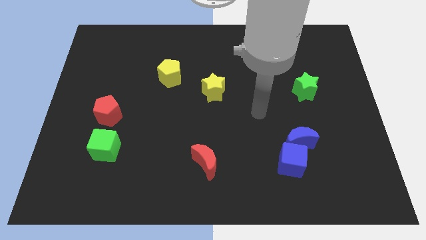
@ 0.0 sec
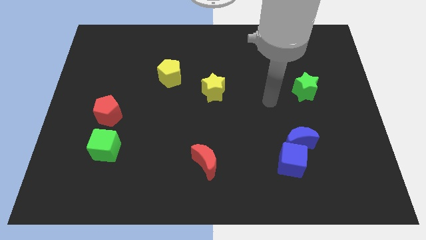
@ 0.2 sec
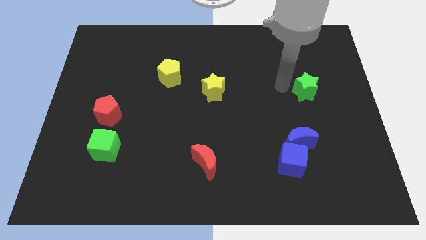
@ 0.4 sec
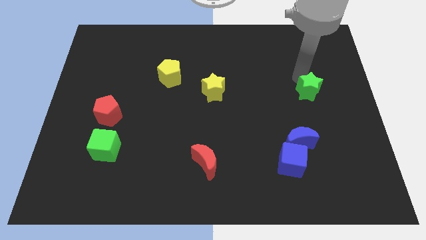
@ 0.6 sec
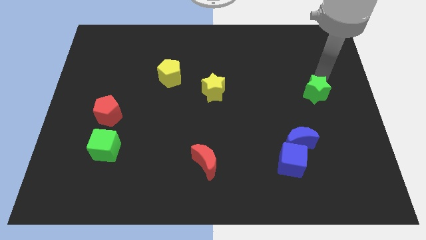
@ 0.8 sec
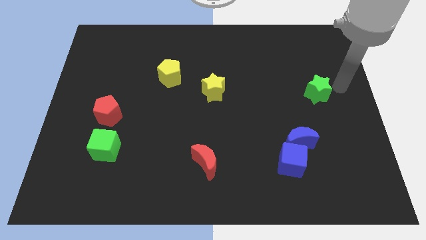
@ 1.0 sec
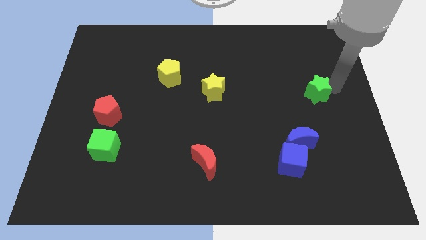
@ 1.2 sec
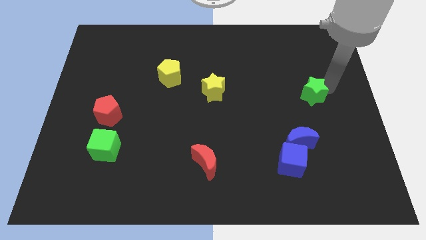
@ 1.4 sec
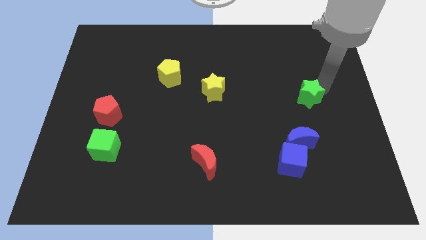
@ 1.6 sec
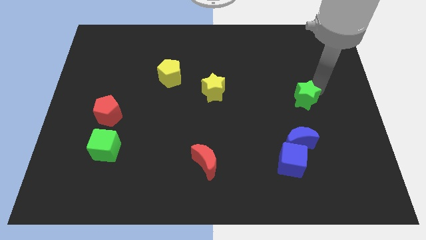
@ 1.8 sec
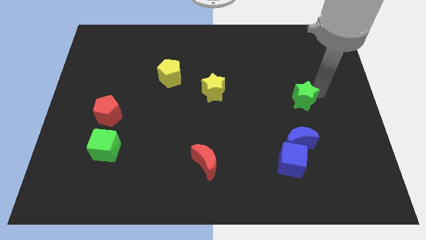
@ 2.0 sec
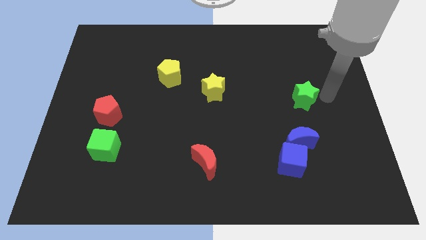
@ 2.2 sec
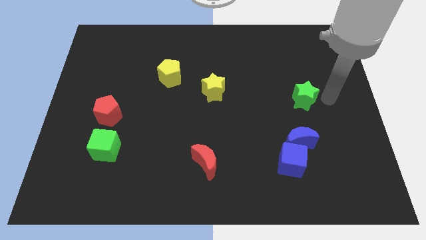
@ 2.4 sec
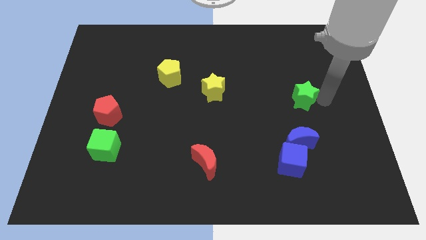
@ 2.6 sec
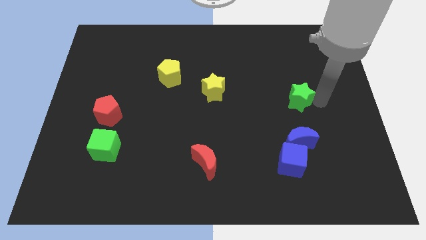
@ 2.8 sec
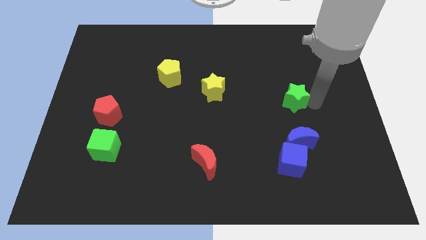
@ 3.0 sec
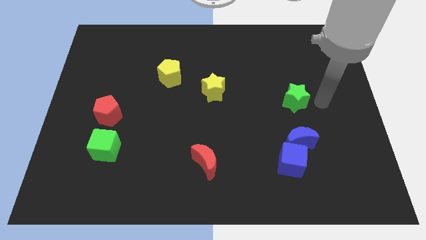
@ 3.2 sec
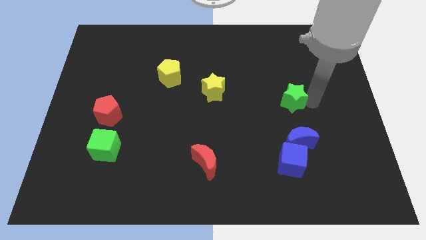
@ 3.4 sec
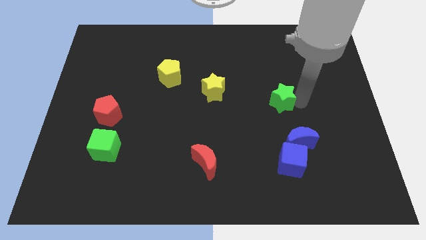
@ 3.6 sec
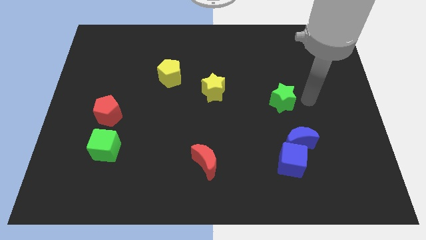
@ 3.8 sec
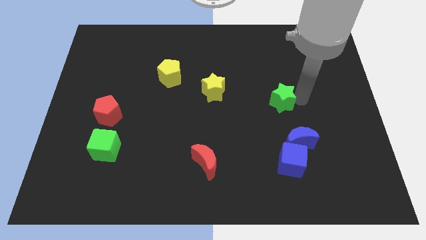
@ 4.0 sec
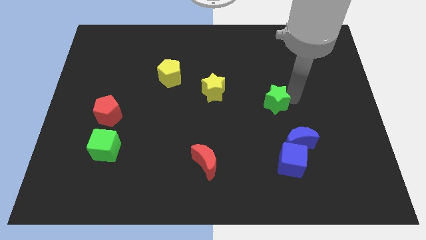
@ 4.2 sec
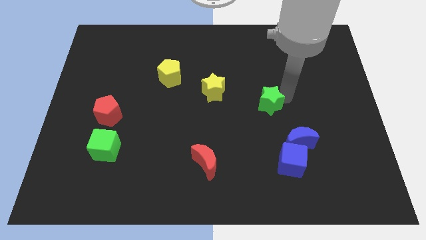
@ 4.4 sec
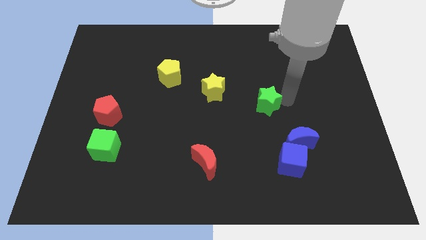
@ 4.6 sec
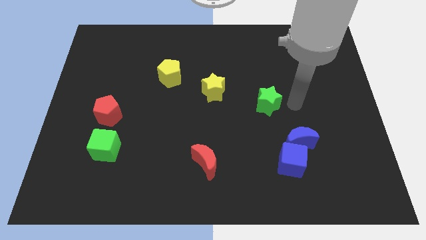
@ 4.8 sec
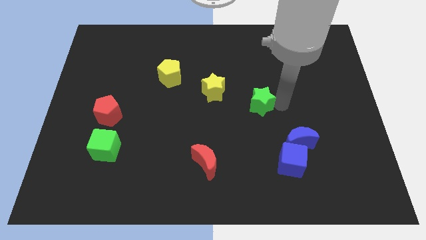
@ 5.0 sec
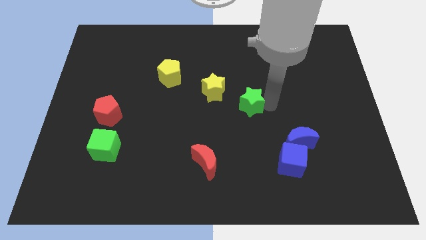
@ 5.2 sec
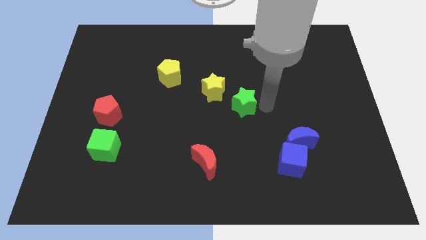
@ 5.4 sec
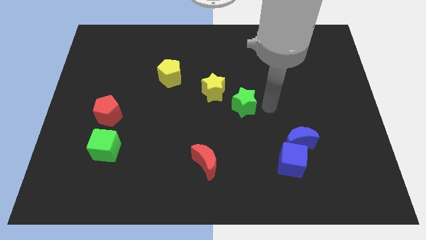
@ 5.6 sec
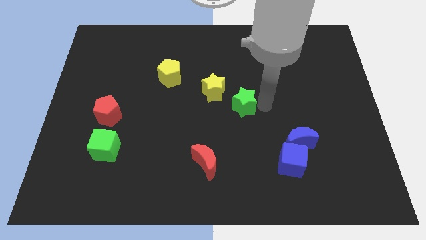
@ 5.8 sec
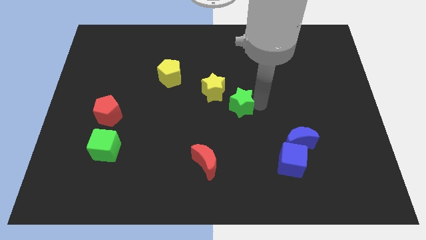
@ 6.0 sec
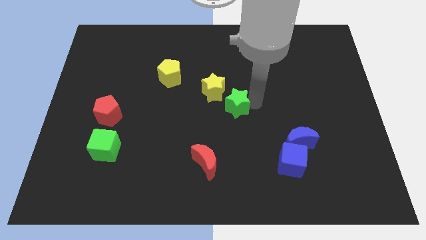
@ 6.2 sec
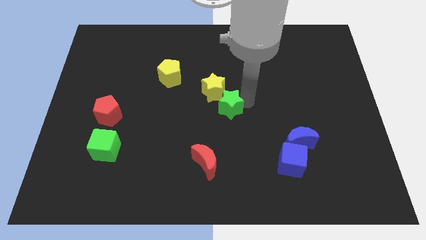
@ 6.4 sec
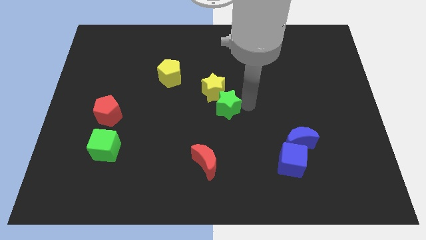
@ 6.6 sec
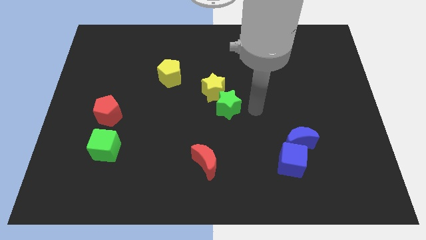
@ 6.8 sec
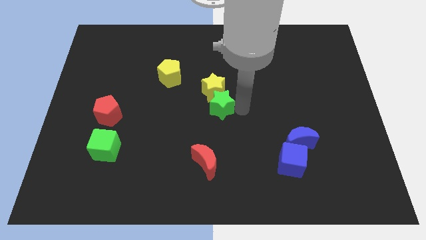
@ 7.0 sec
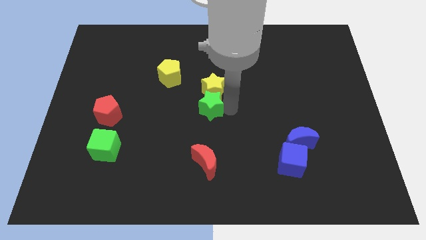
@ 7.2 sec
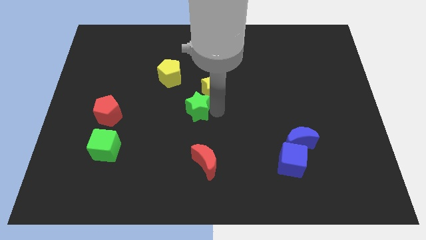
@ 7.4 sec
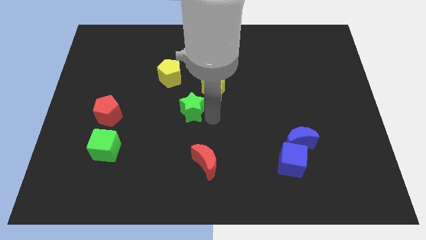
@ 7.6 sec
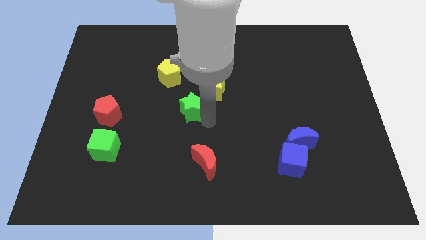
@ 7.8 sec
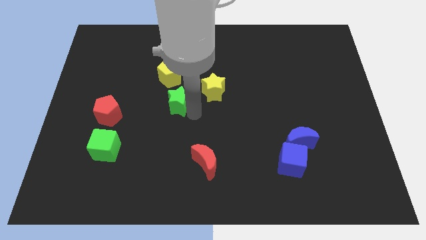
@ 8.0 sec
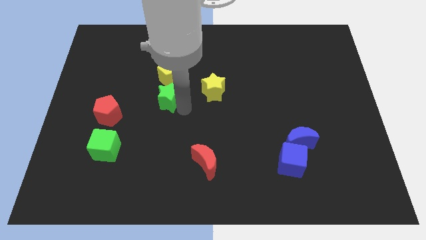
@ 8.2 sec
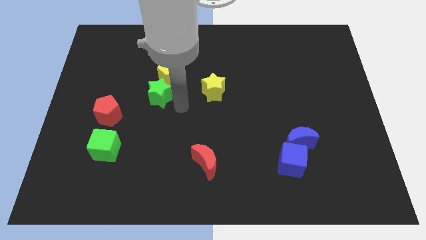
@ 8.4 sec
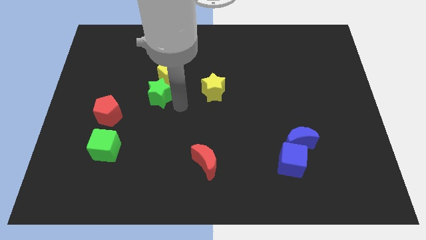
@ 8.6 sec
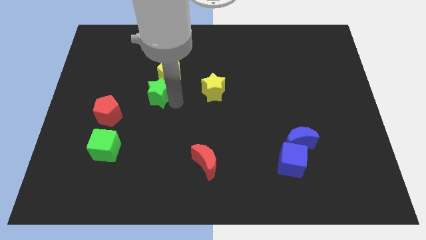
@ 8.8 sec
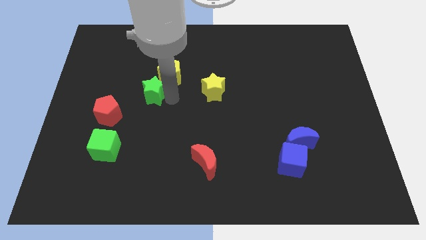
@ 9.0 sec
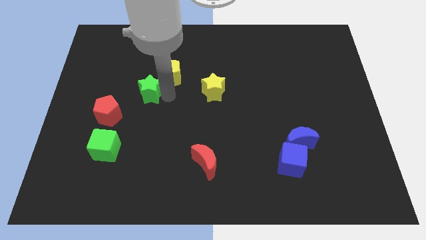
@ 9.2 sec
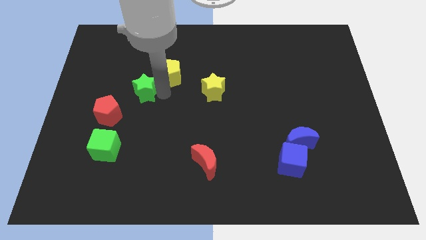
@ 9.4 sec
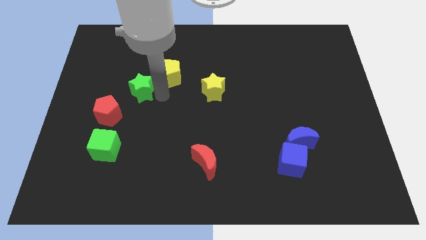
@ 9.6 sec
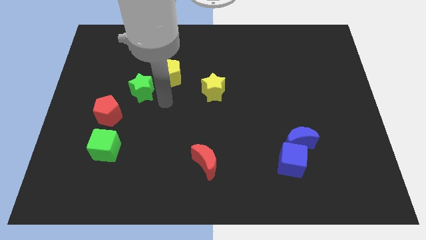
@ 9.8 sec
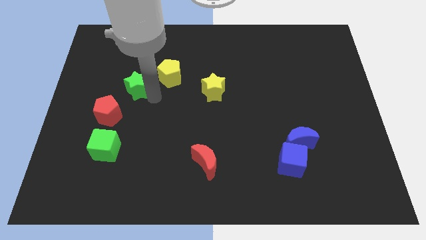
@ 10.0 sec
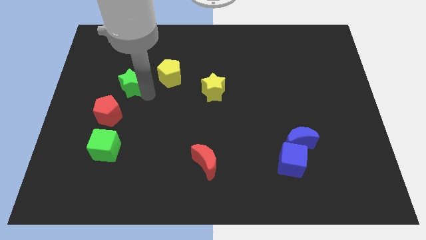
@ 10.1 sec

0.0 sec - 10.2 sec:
move the green star to the top of the red pentagon

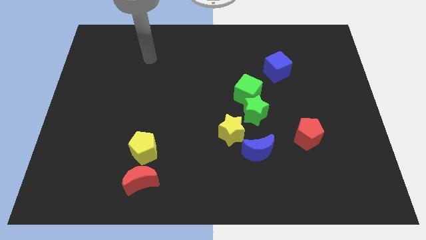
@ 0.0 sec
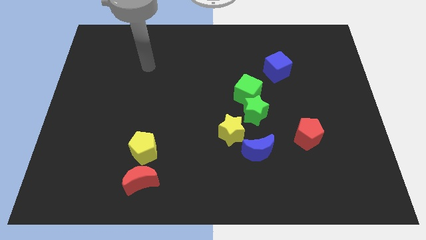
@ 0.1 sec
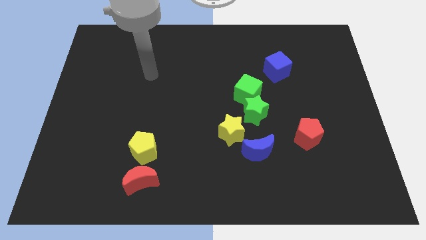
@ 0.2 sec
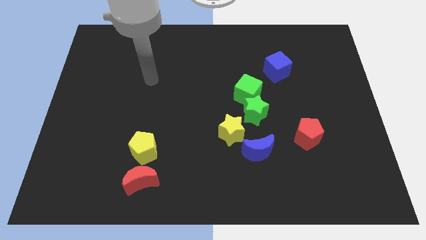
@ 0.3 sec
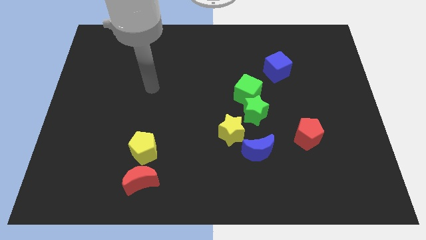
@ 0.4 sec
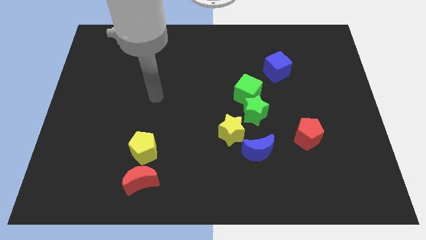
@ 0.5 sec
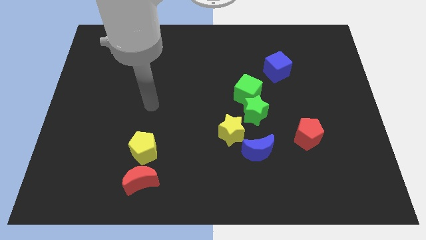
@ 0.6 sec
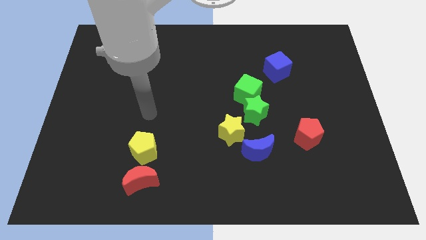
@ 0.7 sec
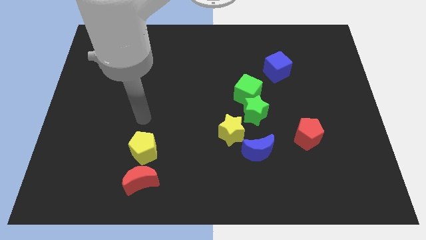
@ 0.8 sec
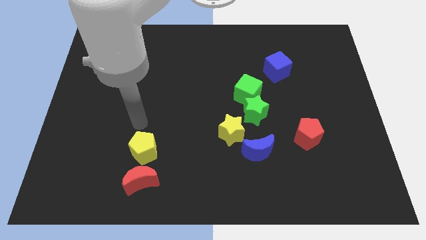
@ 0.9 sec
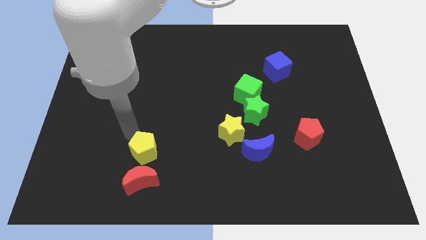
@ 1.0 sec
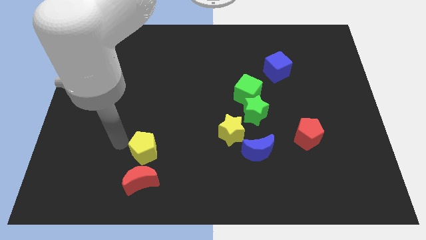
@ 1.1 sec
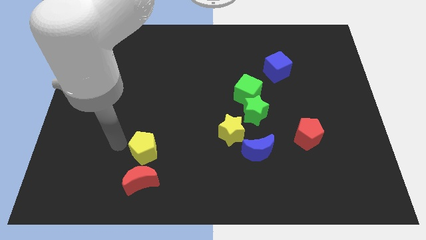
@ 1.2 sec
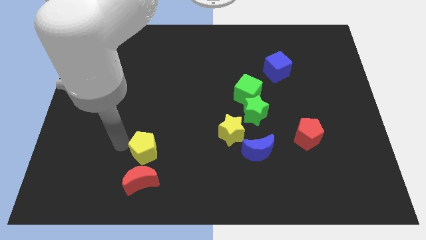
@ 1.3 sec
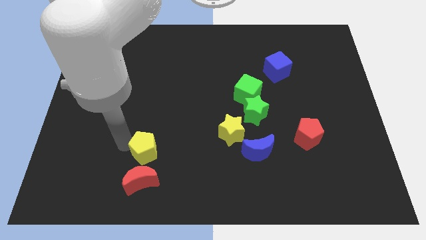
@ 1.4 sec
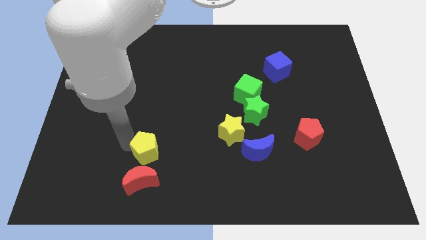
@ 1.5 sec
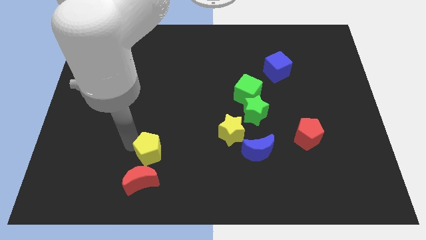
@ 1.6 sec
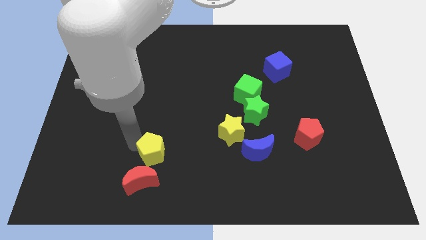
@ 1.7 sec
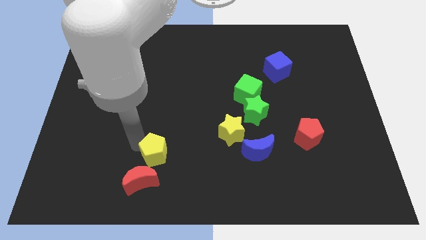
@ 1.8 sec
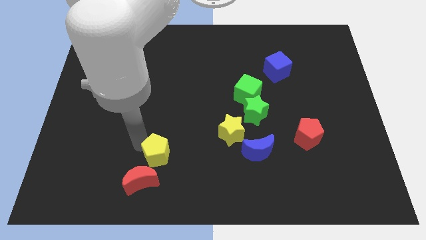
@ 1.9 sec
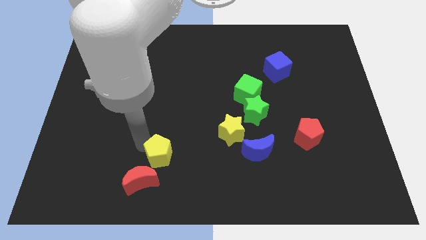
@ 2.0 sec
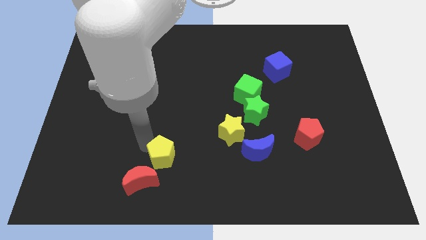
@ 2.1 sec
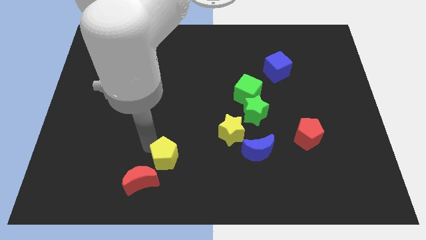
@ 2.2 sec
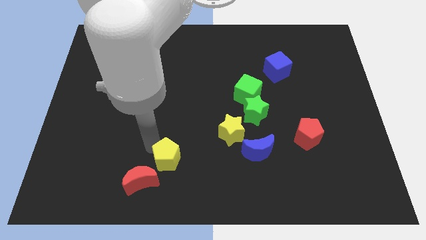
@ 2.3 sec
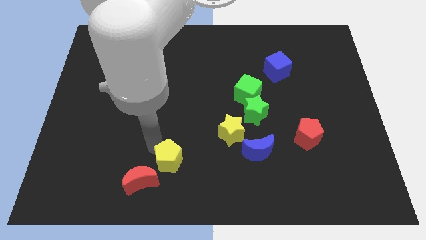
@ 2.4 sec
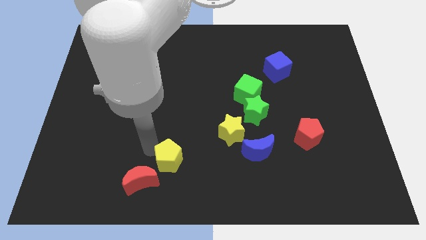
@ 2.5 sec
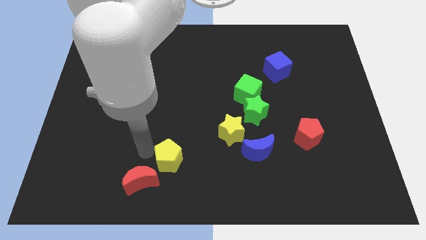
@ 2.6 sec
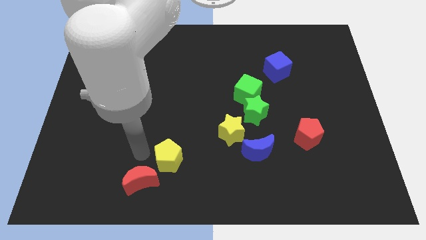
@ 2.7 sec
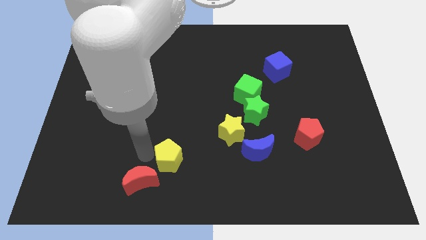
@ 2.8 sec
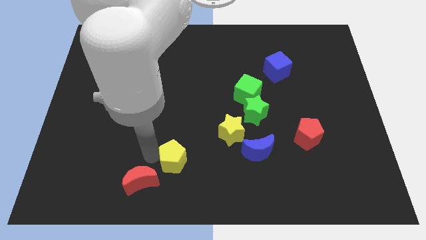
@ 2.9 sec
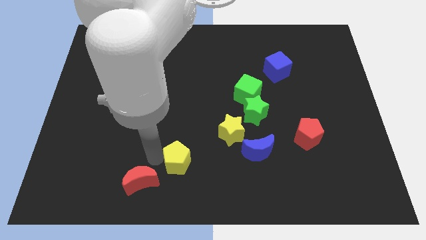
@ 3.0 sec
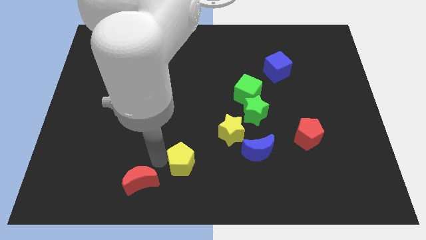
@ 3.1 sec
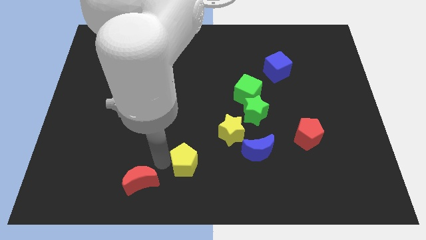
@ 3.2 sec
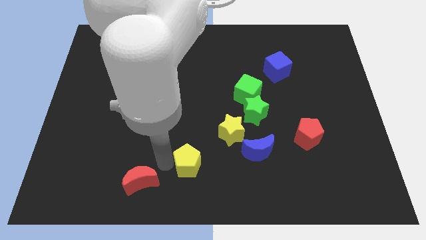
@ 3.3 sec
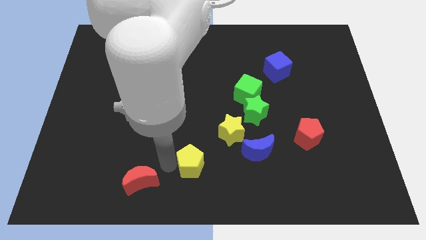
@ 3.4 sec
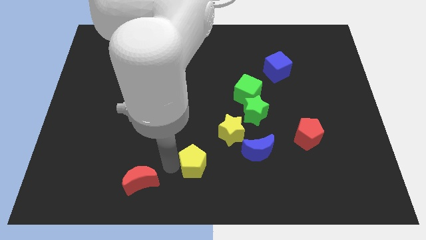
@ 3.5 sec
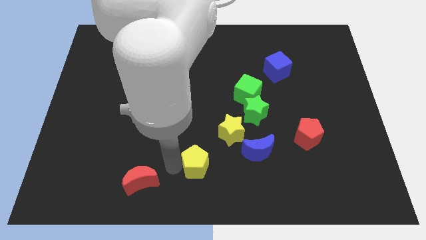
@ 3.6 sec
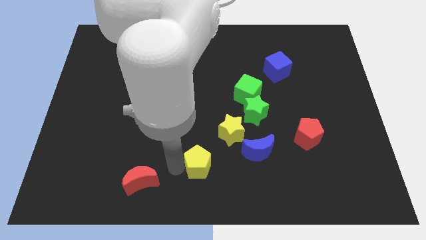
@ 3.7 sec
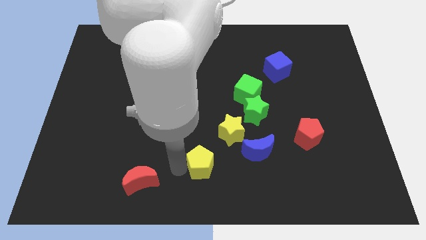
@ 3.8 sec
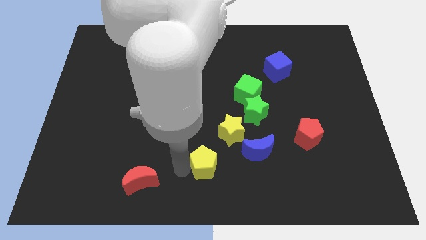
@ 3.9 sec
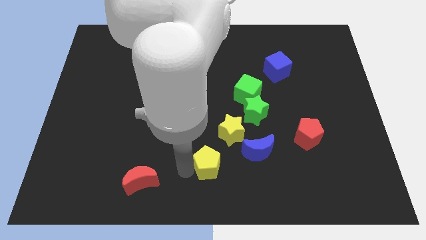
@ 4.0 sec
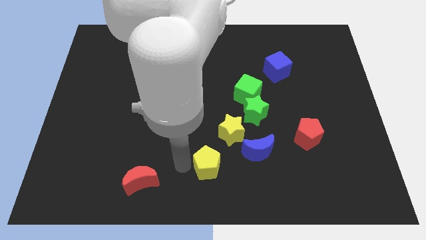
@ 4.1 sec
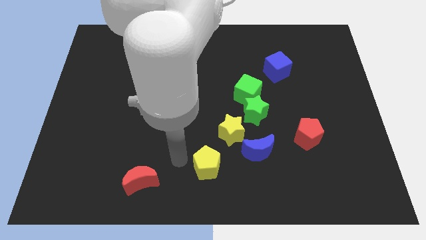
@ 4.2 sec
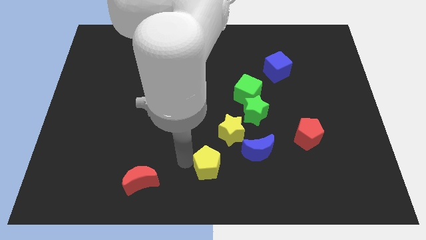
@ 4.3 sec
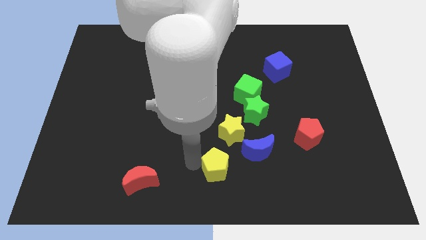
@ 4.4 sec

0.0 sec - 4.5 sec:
put the yellow pentagon diagonally down and to the left of the blue moon
